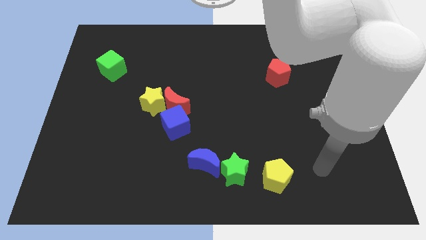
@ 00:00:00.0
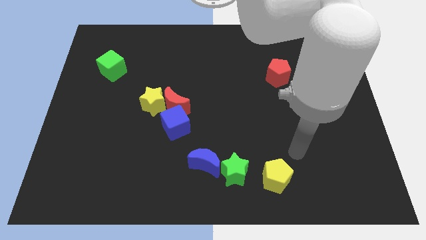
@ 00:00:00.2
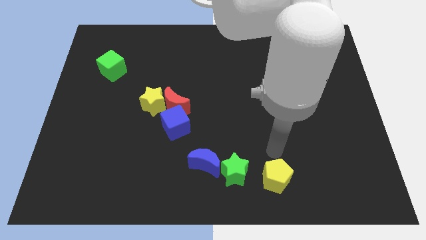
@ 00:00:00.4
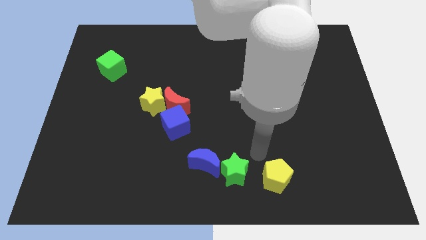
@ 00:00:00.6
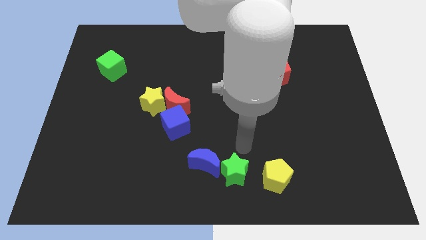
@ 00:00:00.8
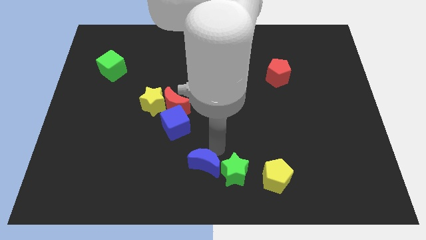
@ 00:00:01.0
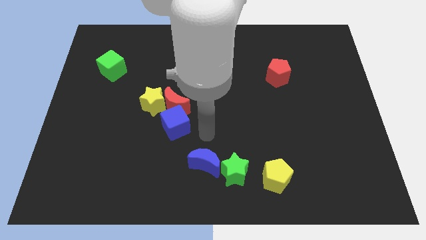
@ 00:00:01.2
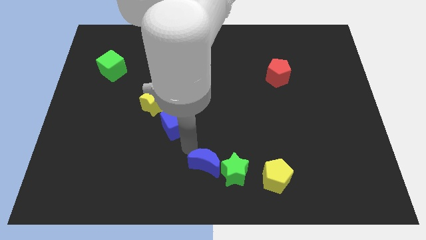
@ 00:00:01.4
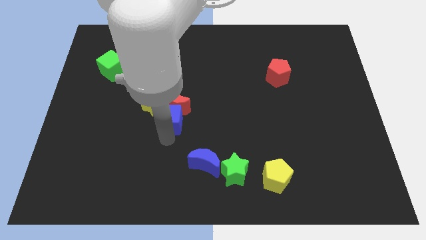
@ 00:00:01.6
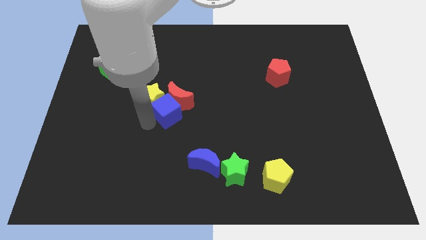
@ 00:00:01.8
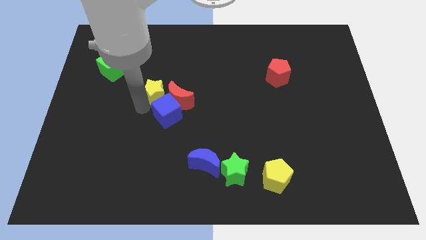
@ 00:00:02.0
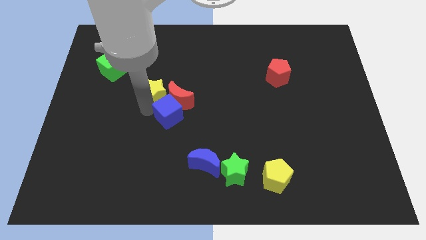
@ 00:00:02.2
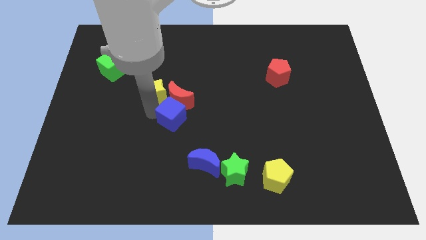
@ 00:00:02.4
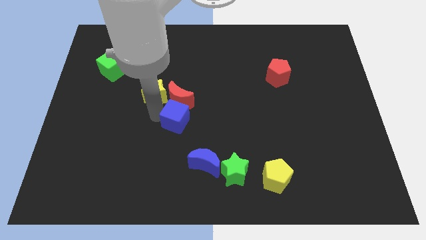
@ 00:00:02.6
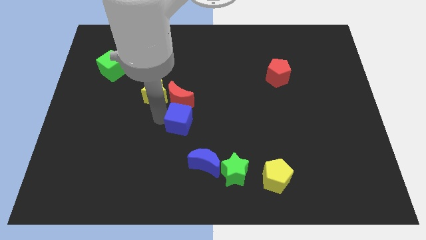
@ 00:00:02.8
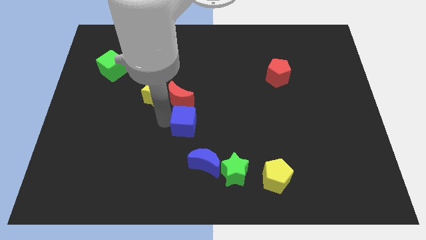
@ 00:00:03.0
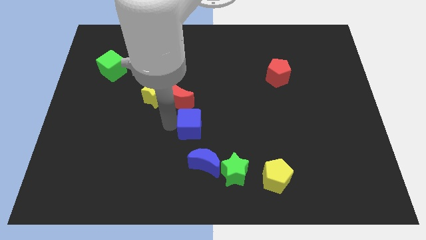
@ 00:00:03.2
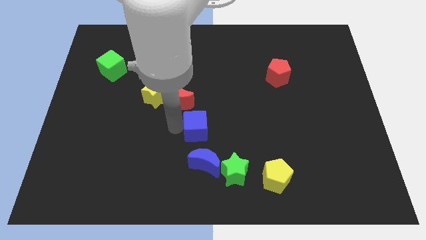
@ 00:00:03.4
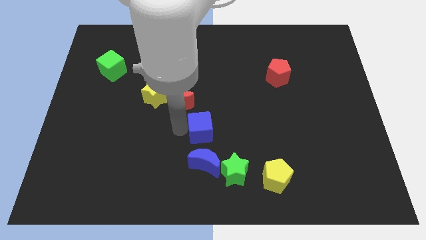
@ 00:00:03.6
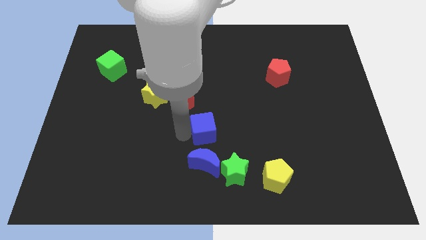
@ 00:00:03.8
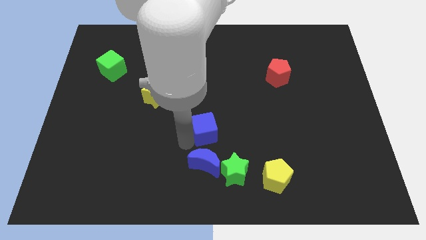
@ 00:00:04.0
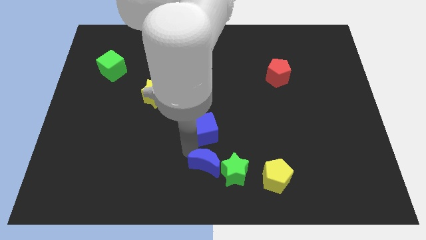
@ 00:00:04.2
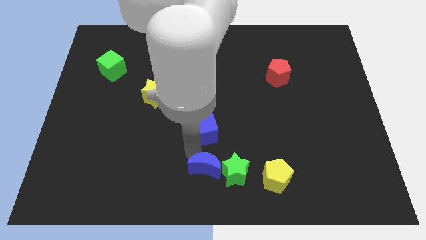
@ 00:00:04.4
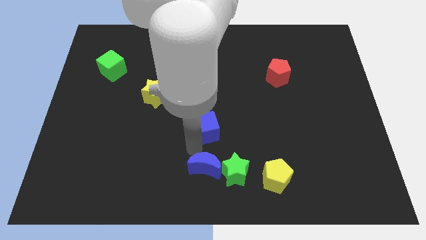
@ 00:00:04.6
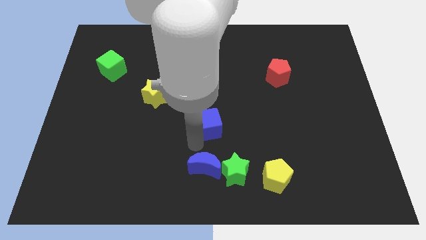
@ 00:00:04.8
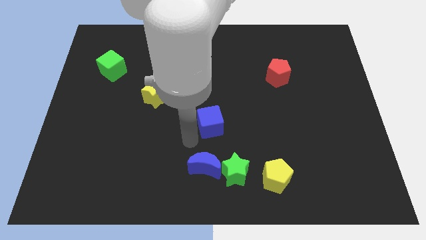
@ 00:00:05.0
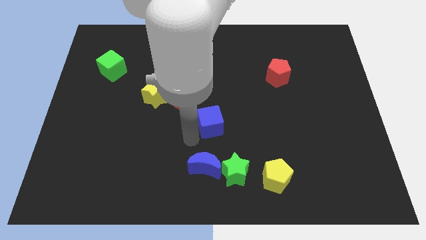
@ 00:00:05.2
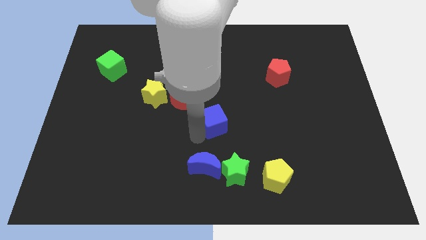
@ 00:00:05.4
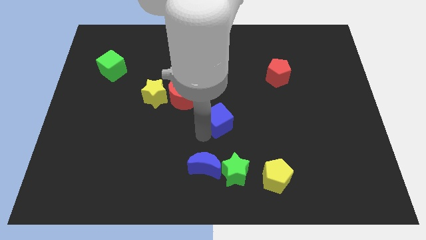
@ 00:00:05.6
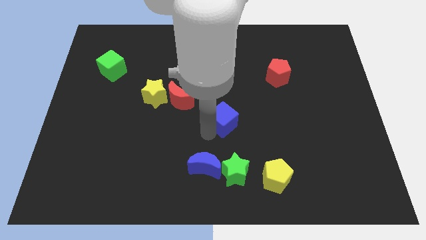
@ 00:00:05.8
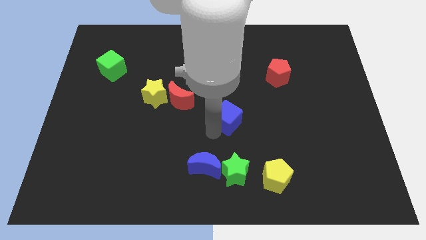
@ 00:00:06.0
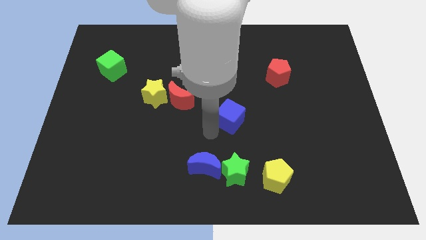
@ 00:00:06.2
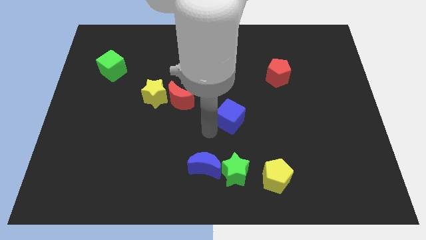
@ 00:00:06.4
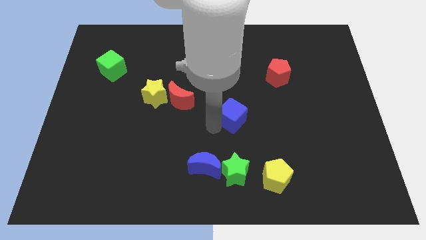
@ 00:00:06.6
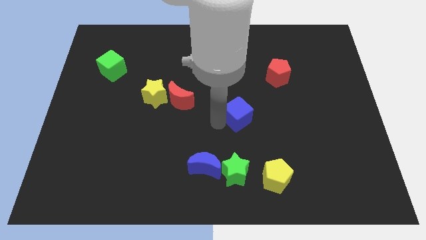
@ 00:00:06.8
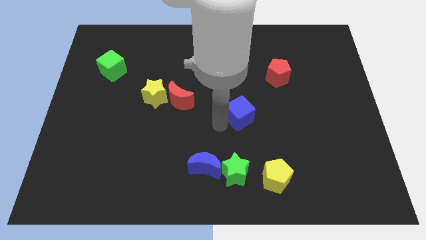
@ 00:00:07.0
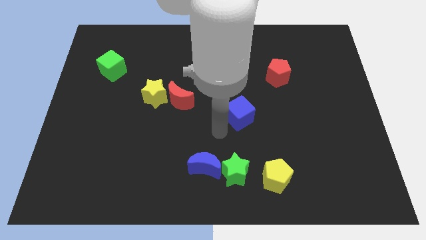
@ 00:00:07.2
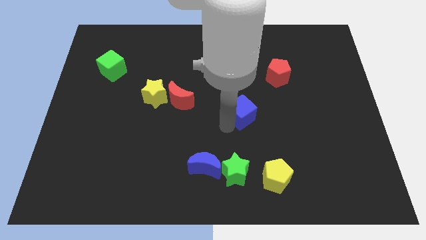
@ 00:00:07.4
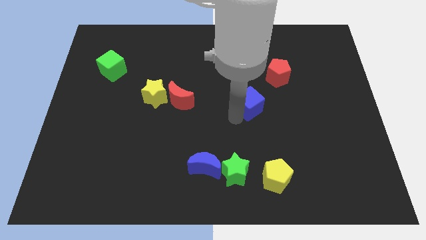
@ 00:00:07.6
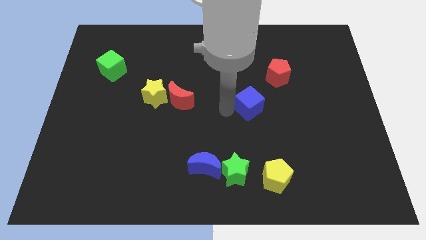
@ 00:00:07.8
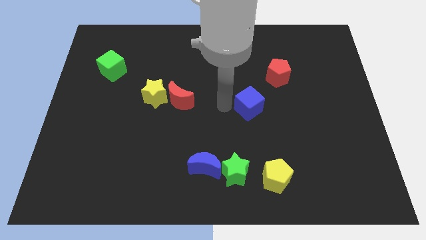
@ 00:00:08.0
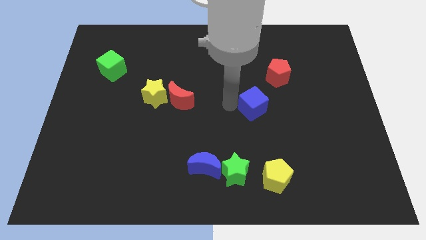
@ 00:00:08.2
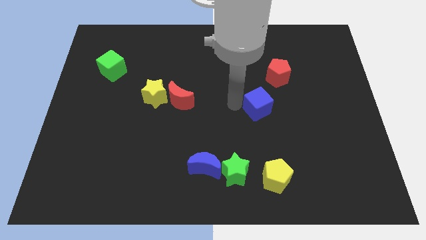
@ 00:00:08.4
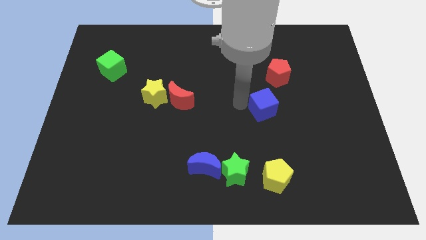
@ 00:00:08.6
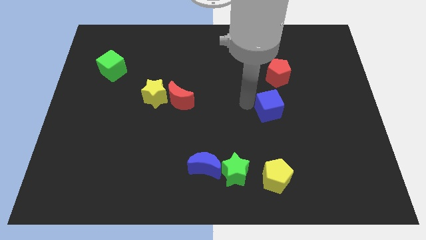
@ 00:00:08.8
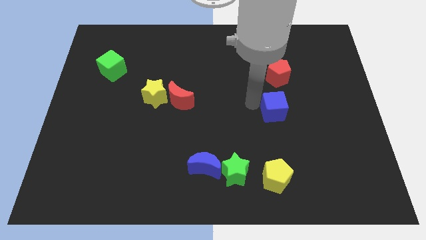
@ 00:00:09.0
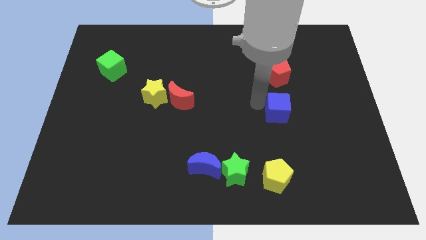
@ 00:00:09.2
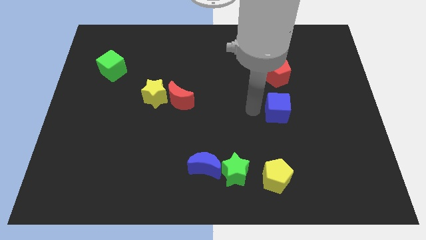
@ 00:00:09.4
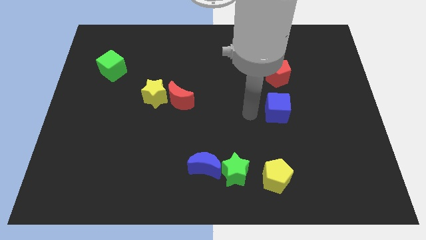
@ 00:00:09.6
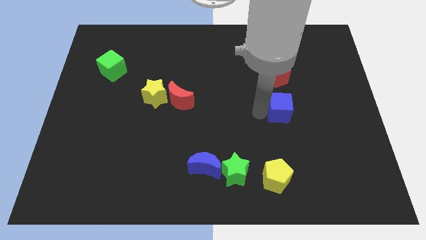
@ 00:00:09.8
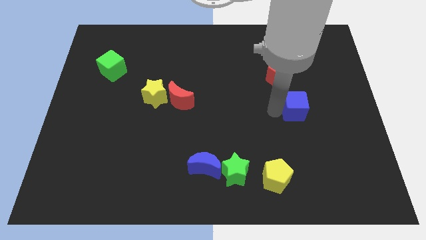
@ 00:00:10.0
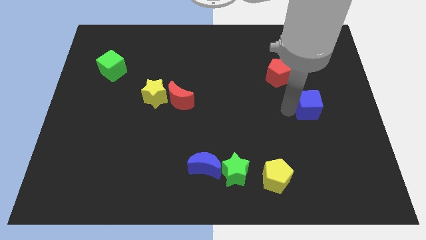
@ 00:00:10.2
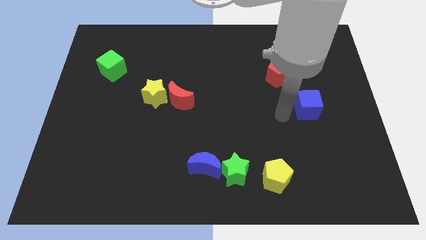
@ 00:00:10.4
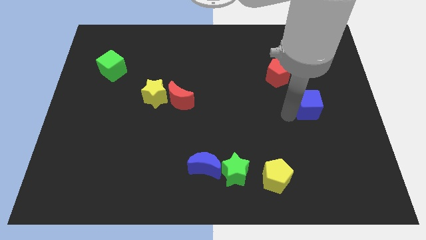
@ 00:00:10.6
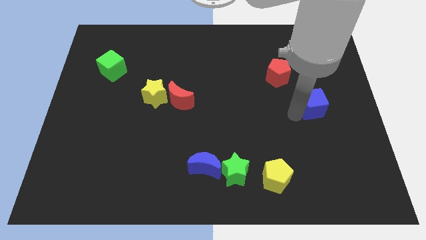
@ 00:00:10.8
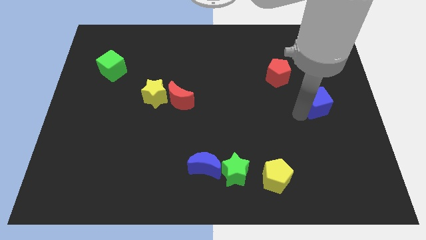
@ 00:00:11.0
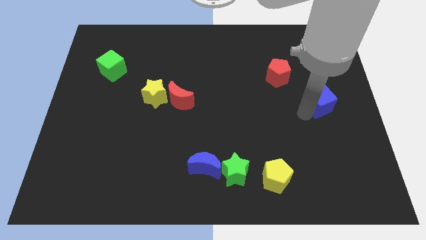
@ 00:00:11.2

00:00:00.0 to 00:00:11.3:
move the blue cube to the right side
